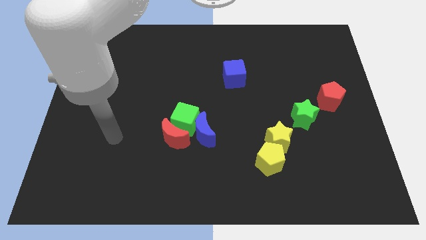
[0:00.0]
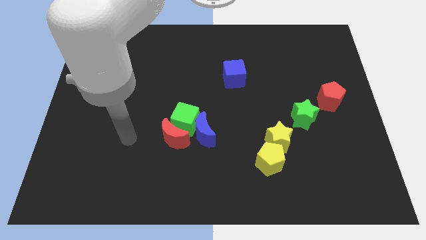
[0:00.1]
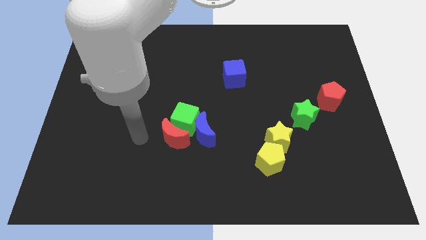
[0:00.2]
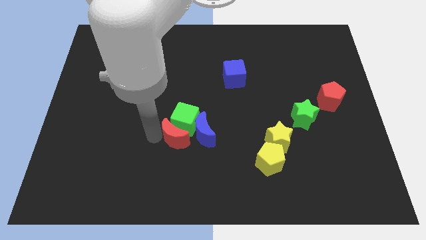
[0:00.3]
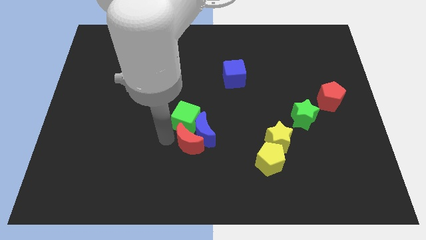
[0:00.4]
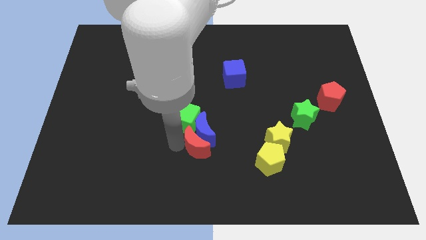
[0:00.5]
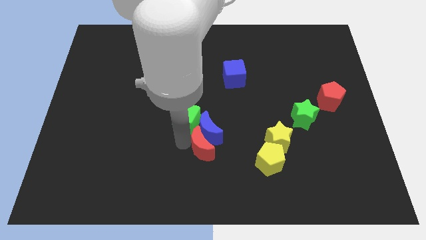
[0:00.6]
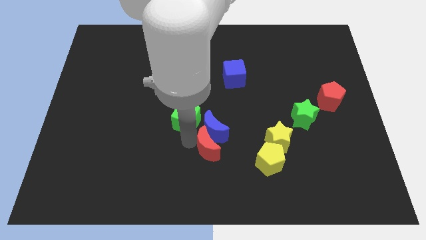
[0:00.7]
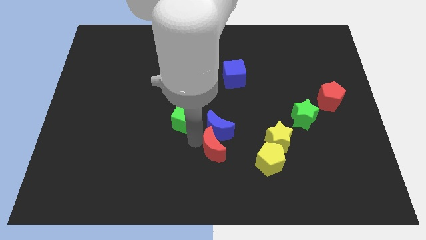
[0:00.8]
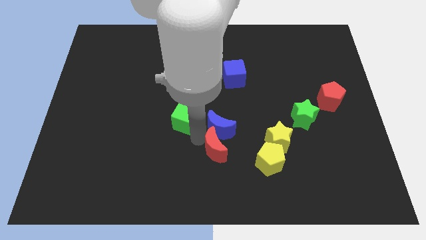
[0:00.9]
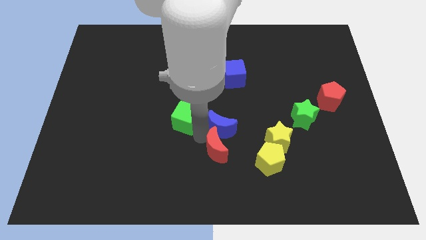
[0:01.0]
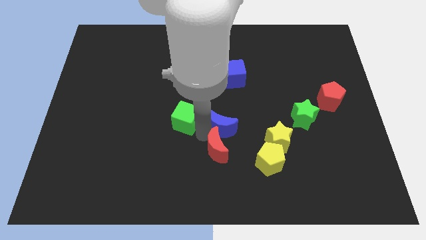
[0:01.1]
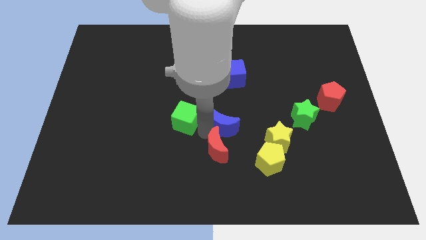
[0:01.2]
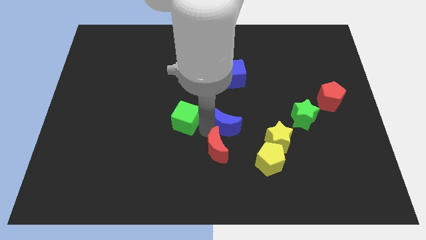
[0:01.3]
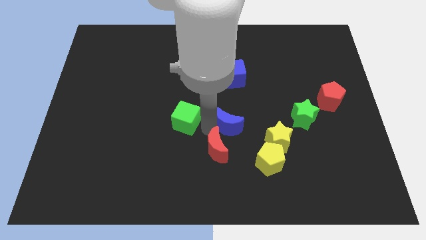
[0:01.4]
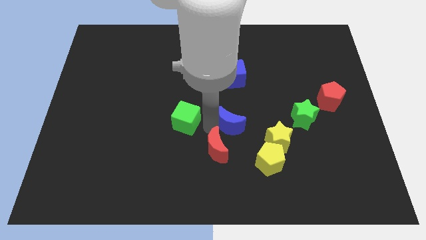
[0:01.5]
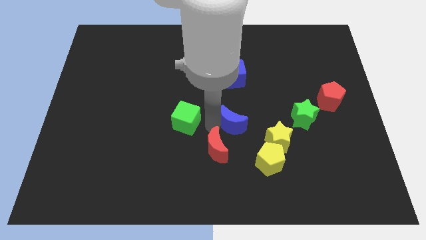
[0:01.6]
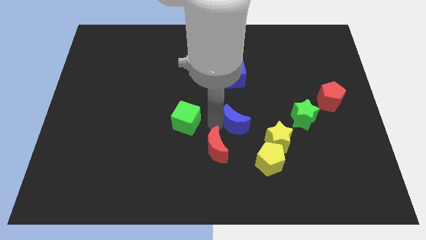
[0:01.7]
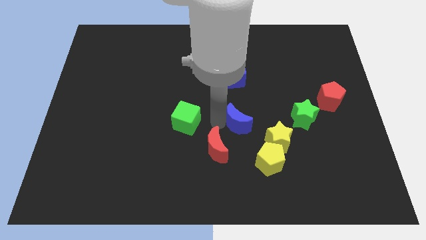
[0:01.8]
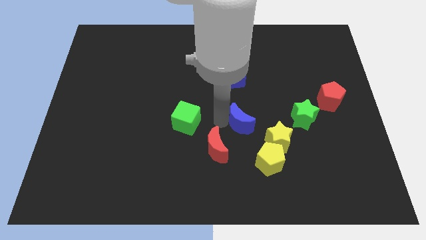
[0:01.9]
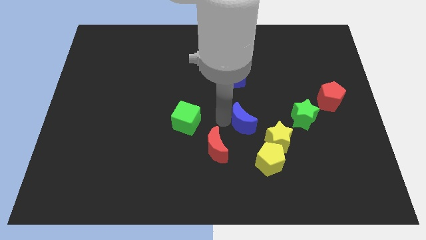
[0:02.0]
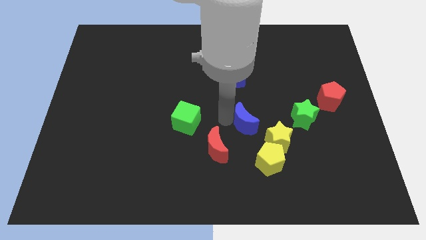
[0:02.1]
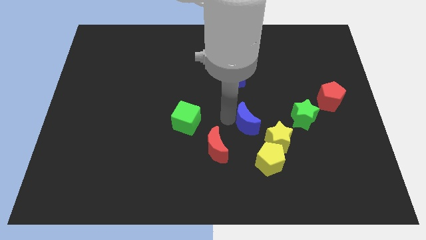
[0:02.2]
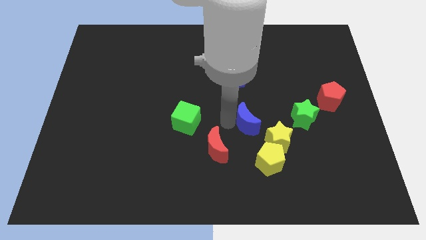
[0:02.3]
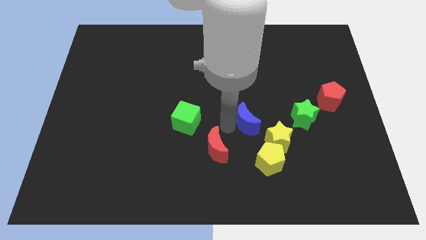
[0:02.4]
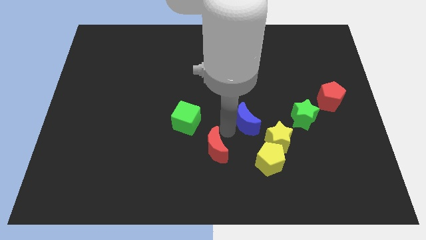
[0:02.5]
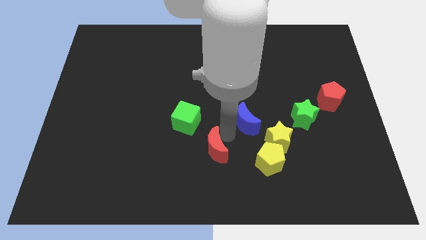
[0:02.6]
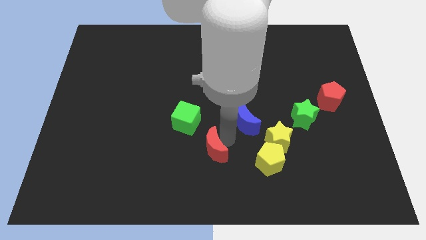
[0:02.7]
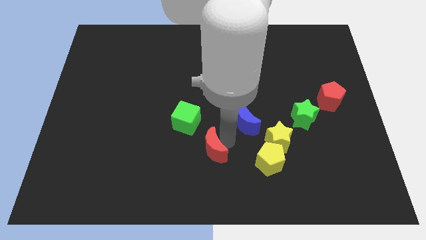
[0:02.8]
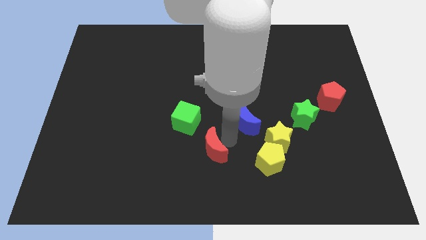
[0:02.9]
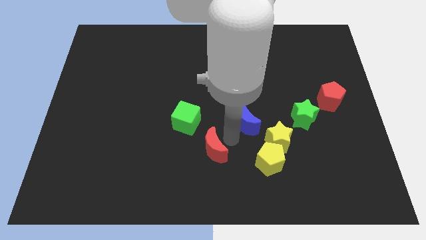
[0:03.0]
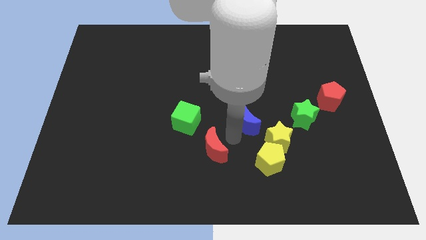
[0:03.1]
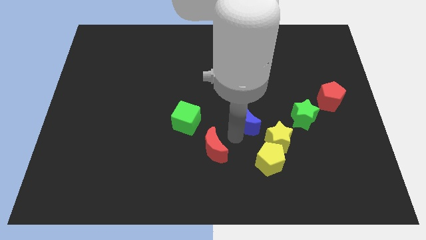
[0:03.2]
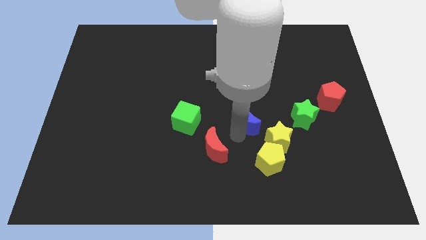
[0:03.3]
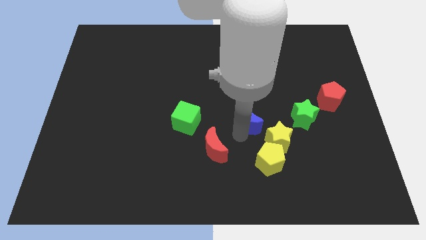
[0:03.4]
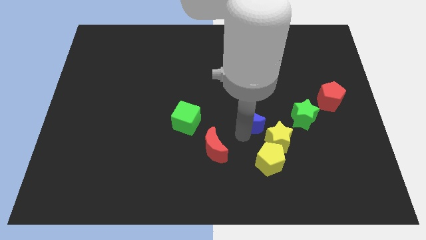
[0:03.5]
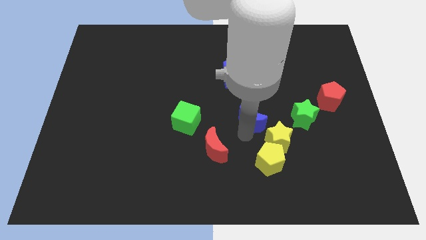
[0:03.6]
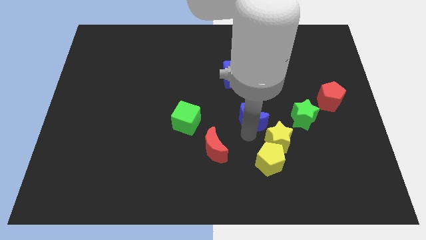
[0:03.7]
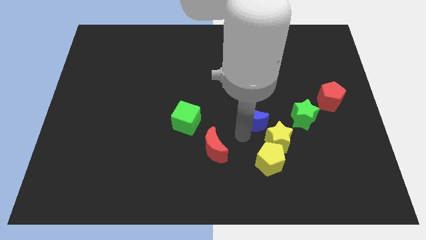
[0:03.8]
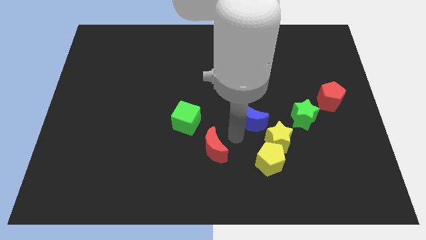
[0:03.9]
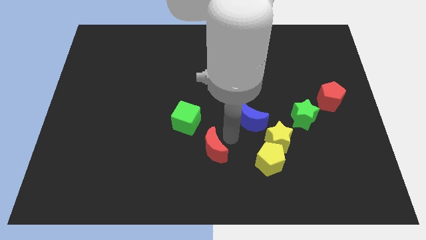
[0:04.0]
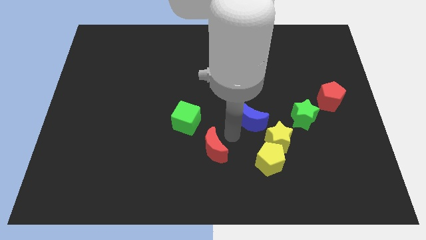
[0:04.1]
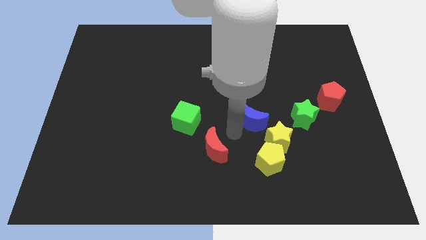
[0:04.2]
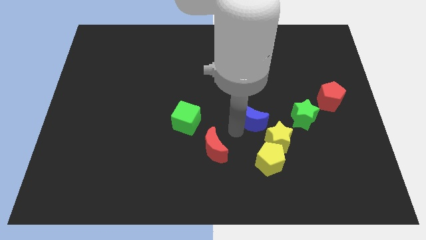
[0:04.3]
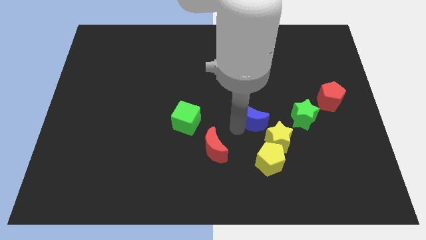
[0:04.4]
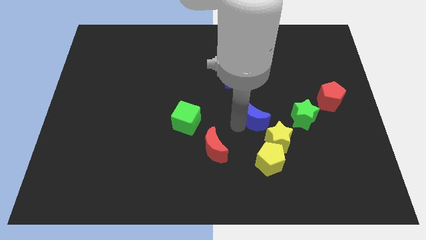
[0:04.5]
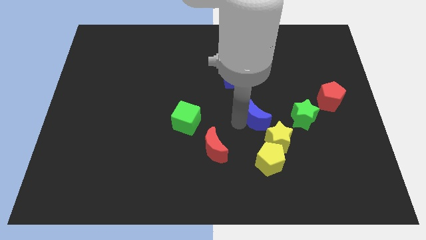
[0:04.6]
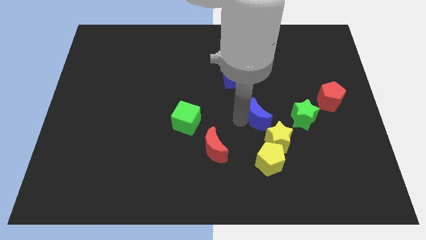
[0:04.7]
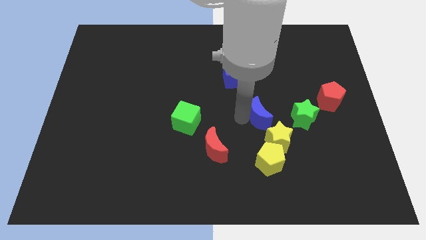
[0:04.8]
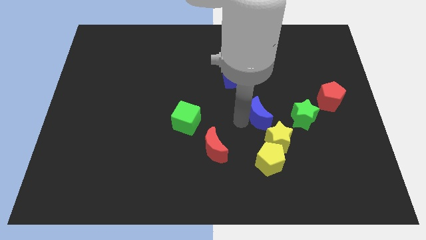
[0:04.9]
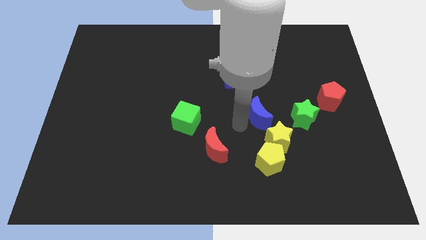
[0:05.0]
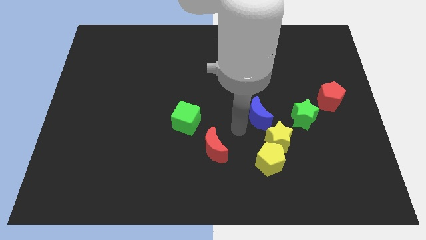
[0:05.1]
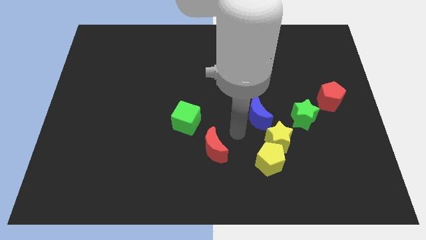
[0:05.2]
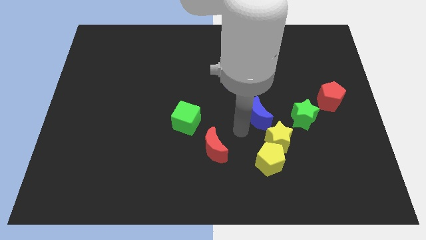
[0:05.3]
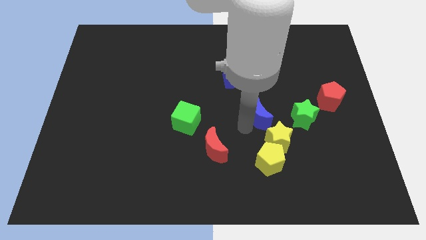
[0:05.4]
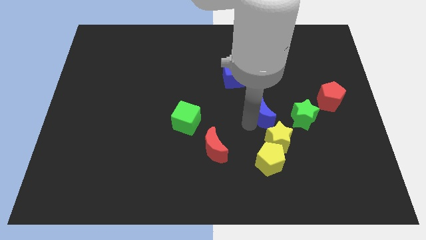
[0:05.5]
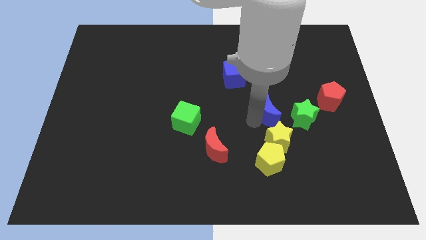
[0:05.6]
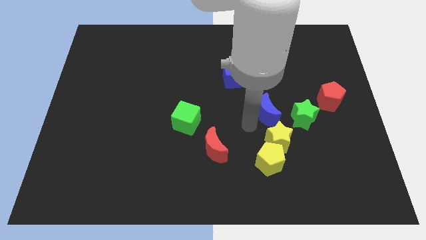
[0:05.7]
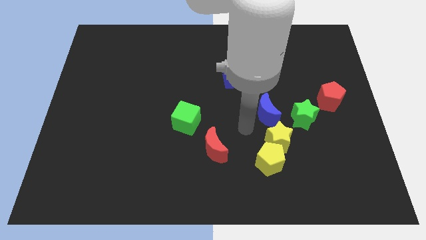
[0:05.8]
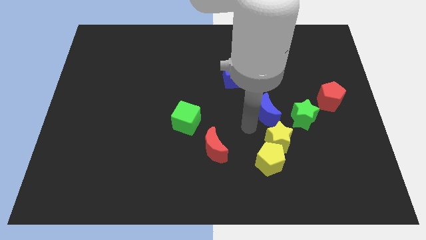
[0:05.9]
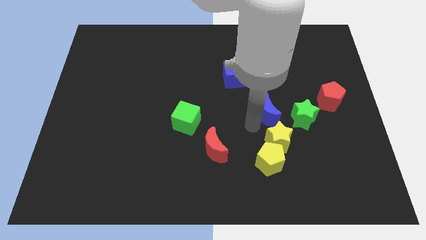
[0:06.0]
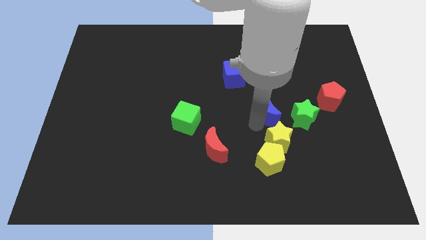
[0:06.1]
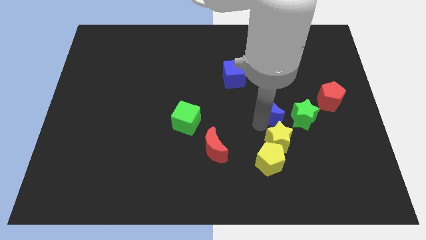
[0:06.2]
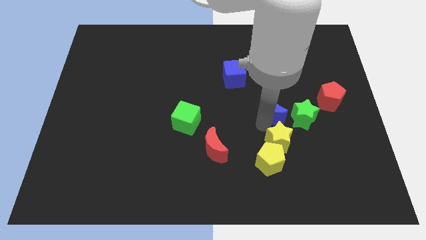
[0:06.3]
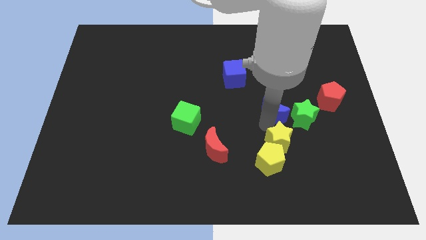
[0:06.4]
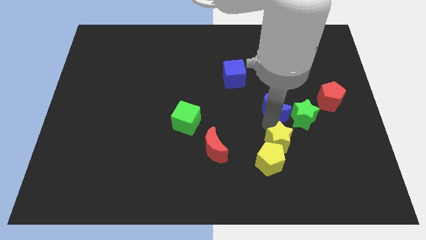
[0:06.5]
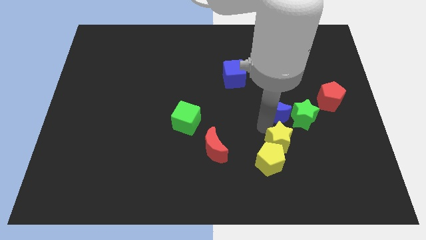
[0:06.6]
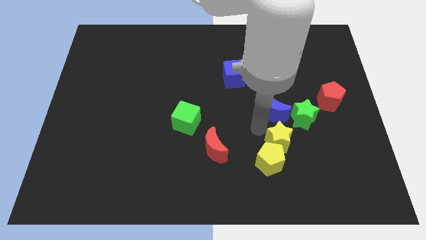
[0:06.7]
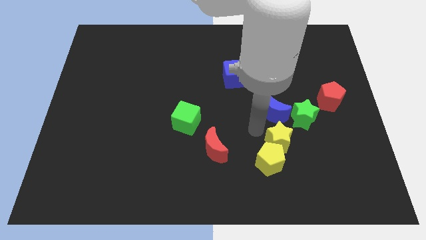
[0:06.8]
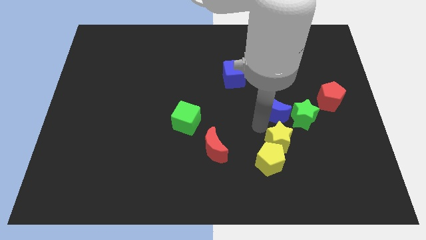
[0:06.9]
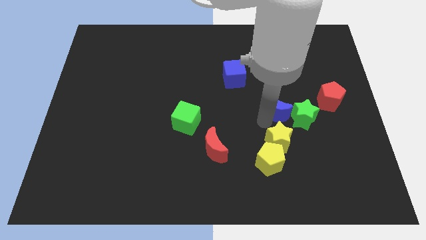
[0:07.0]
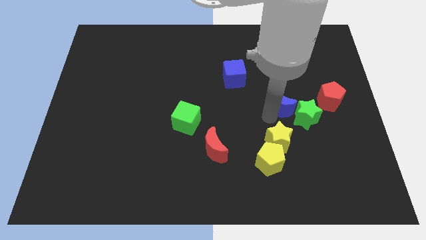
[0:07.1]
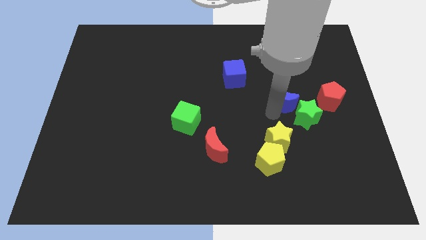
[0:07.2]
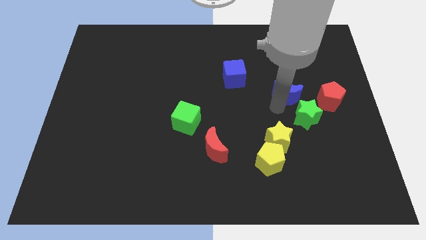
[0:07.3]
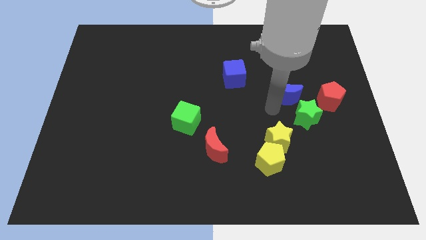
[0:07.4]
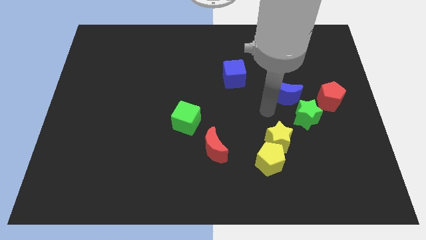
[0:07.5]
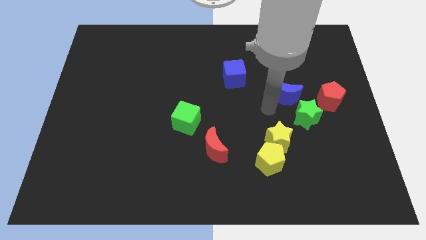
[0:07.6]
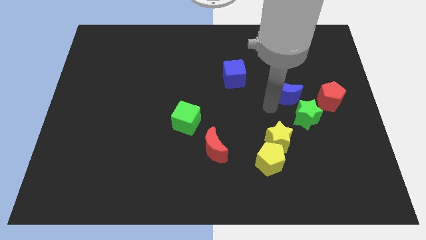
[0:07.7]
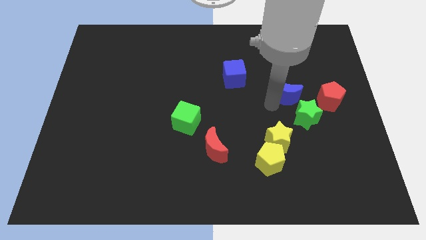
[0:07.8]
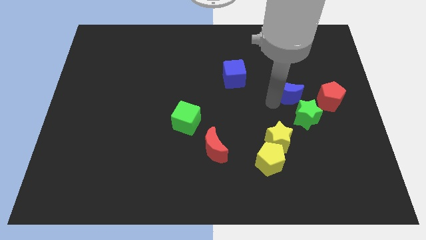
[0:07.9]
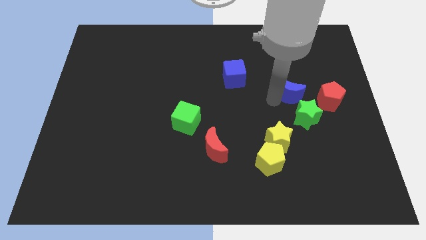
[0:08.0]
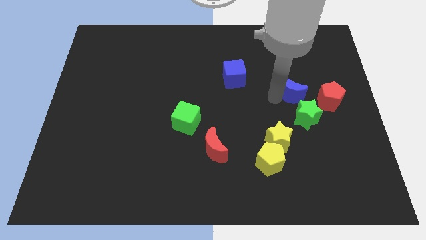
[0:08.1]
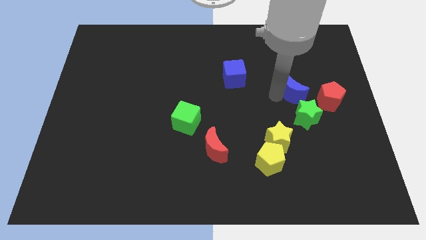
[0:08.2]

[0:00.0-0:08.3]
slide the blue moon to the top left side of the red pentagon
